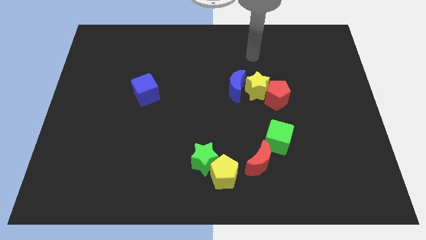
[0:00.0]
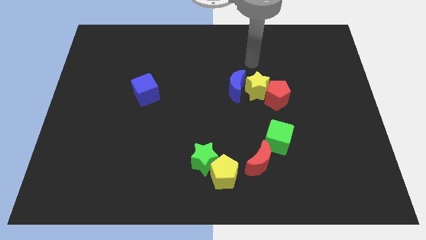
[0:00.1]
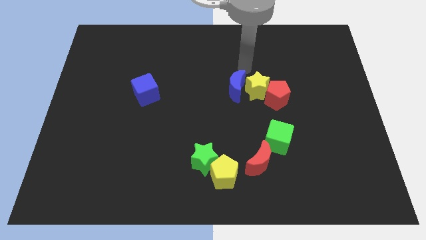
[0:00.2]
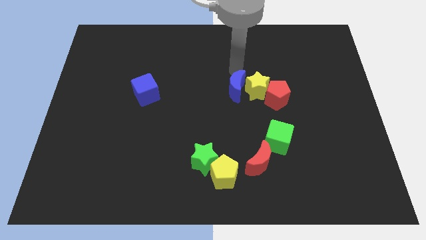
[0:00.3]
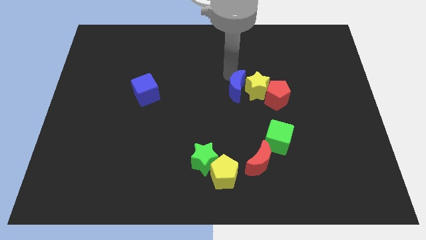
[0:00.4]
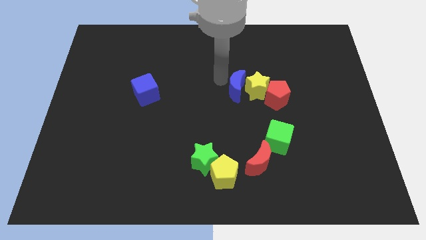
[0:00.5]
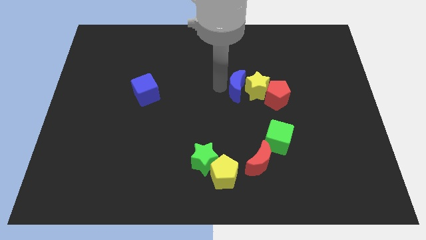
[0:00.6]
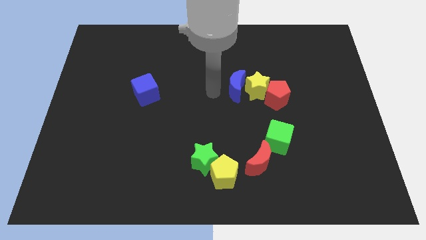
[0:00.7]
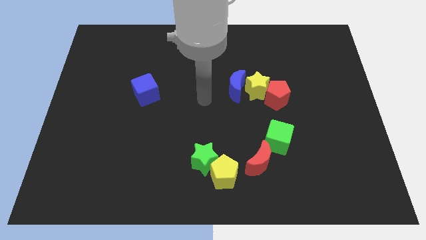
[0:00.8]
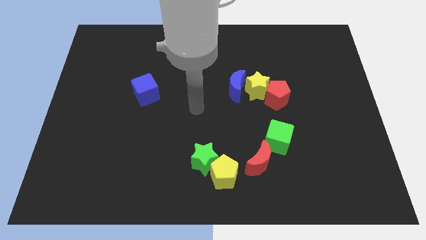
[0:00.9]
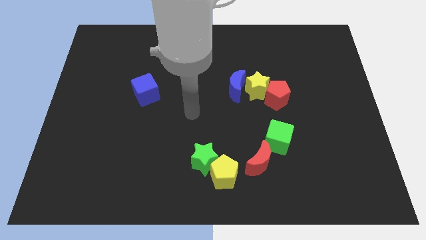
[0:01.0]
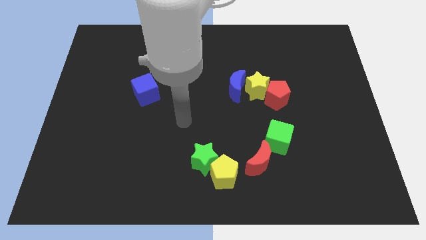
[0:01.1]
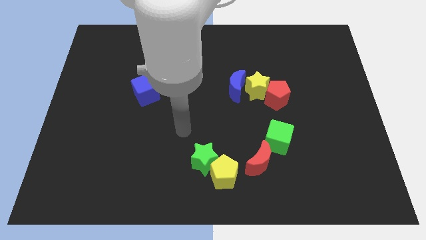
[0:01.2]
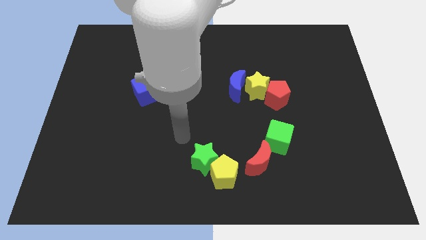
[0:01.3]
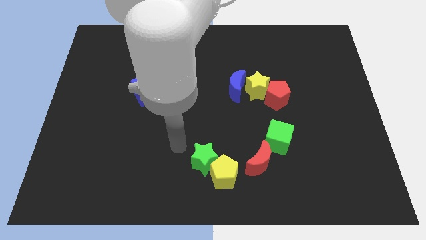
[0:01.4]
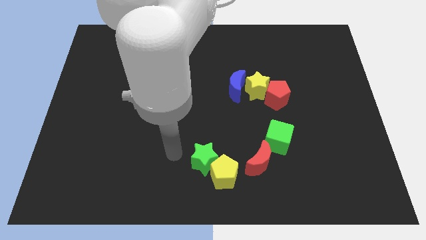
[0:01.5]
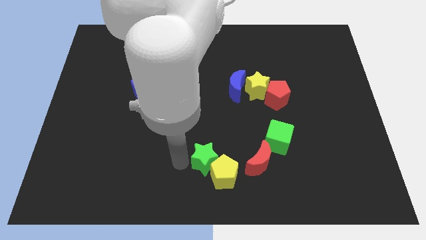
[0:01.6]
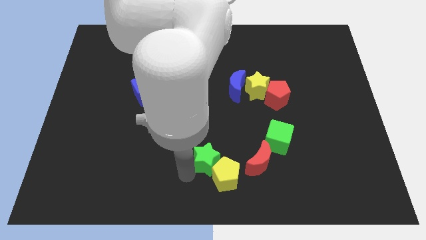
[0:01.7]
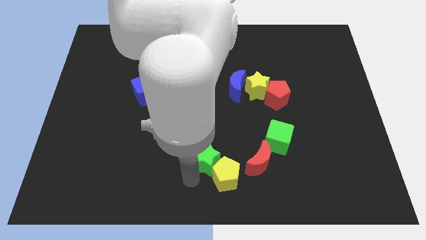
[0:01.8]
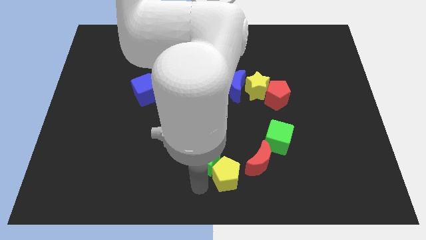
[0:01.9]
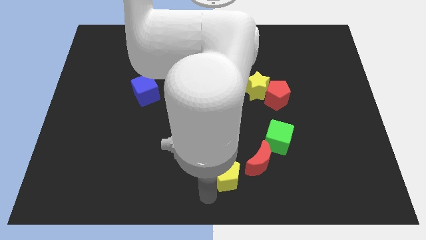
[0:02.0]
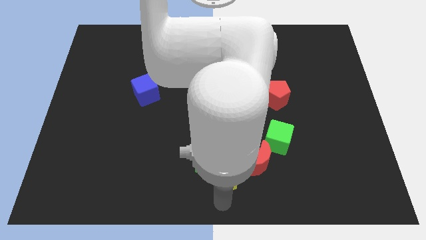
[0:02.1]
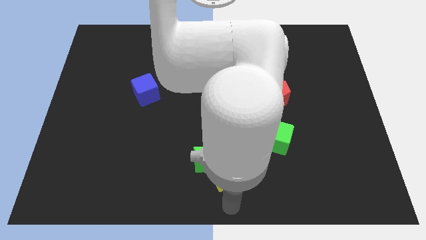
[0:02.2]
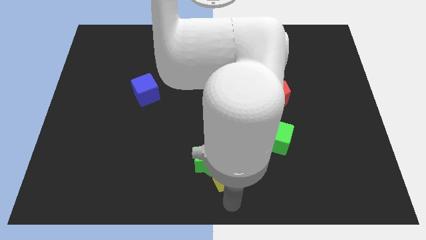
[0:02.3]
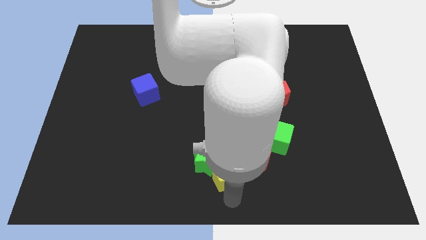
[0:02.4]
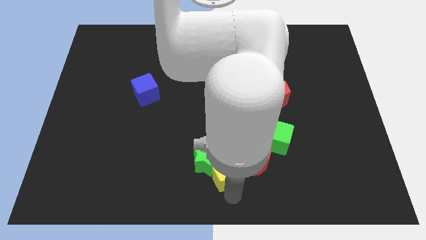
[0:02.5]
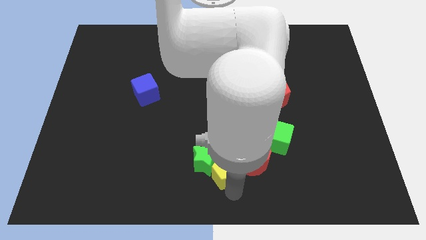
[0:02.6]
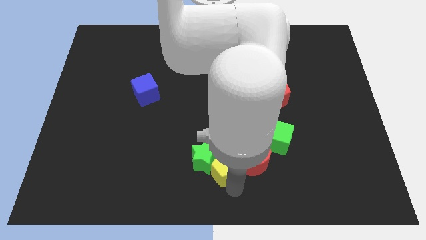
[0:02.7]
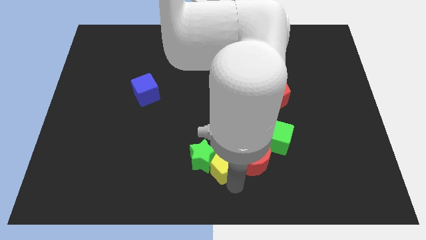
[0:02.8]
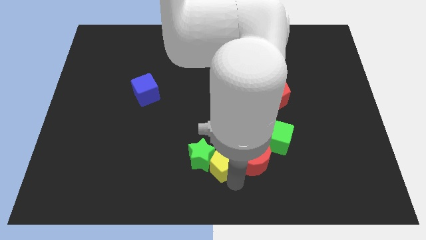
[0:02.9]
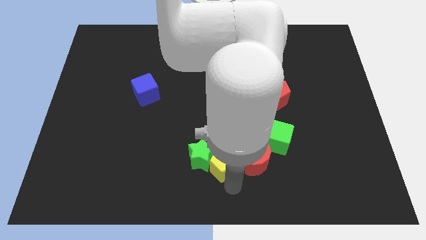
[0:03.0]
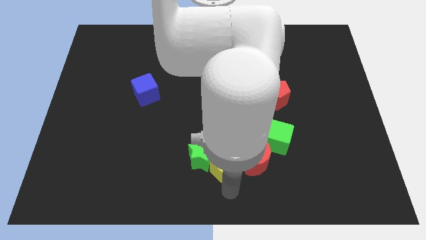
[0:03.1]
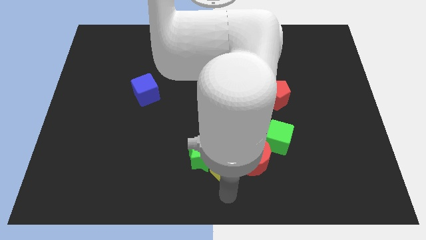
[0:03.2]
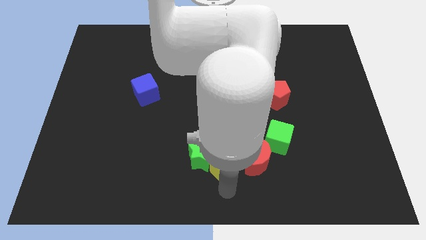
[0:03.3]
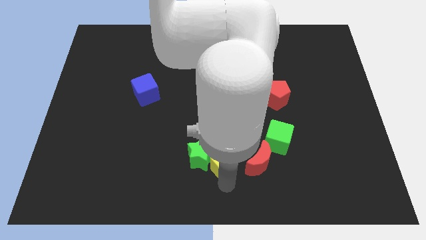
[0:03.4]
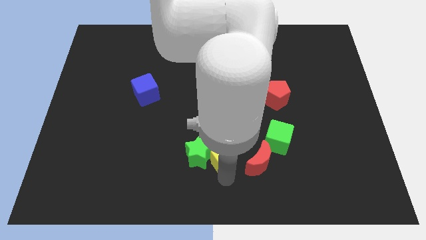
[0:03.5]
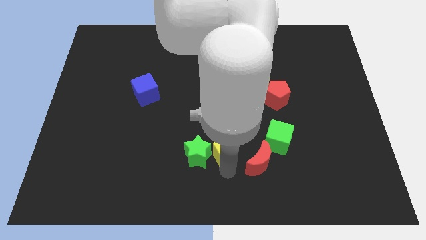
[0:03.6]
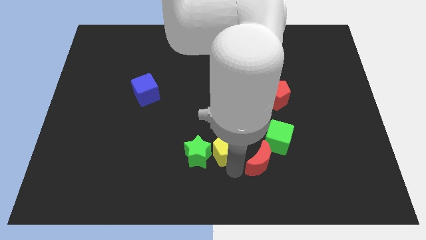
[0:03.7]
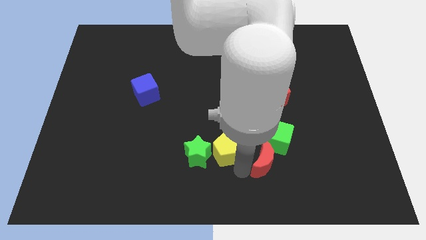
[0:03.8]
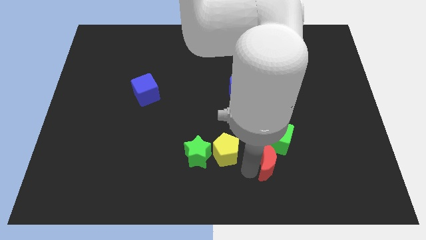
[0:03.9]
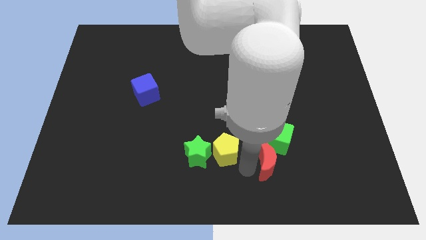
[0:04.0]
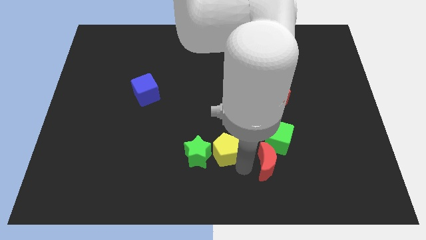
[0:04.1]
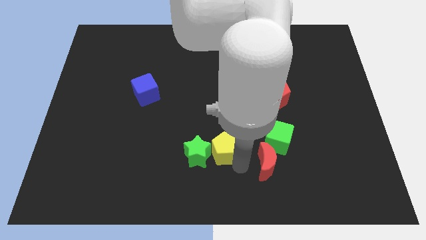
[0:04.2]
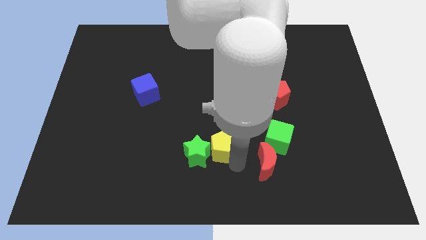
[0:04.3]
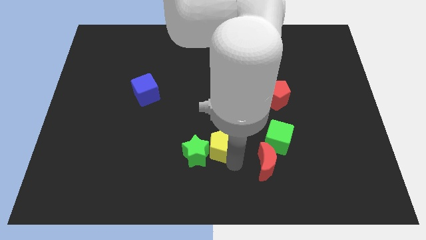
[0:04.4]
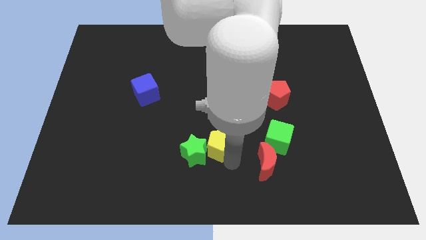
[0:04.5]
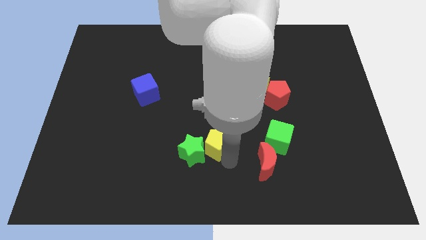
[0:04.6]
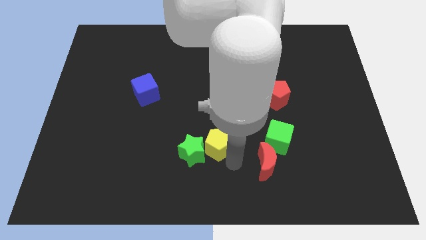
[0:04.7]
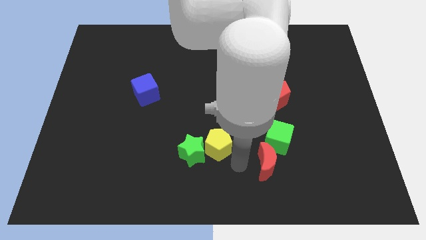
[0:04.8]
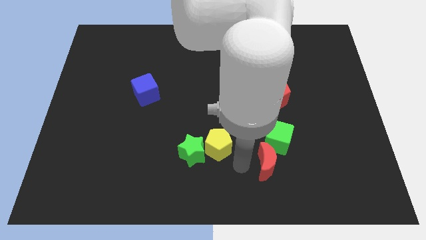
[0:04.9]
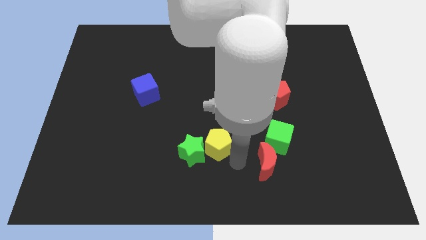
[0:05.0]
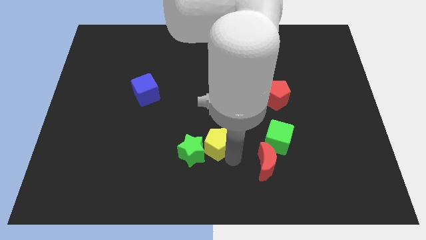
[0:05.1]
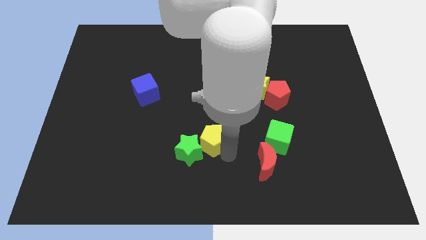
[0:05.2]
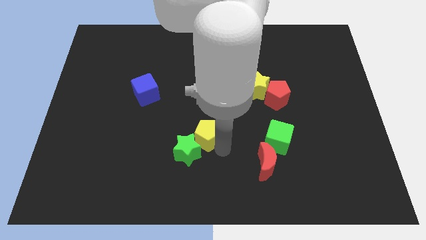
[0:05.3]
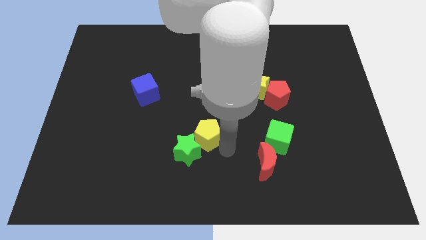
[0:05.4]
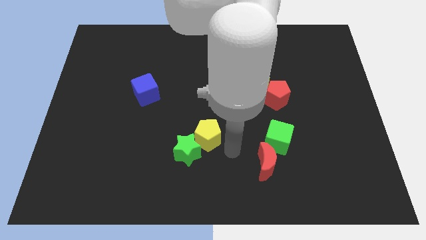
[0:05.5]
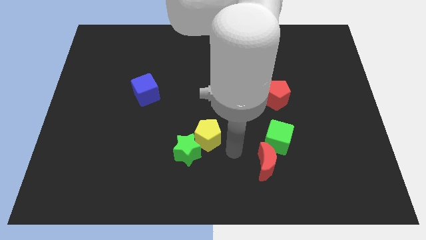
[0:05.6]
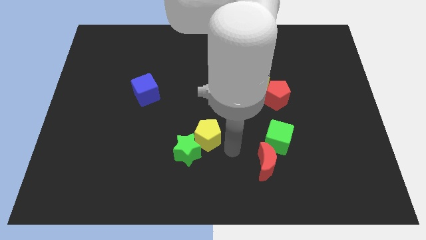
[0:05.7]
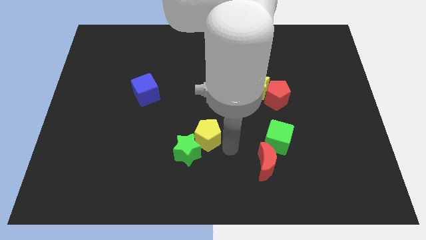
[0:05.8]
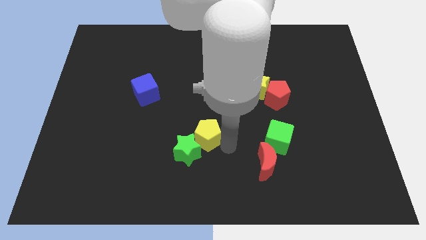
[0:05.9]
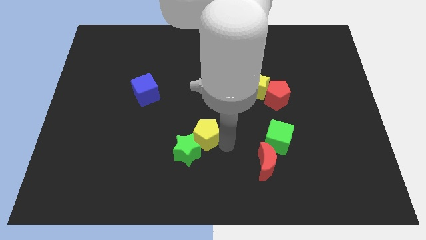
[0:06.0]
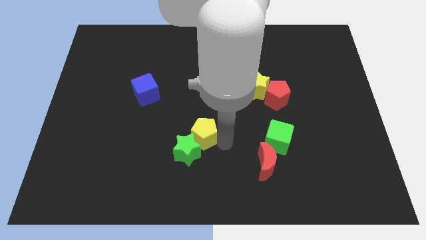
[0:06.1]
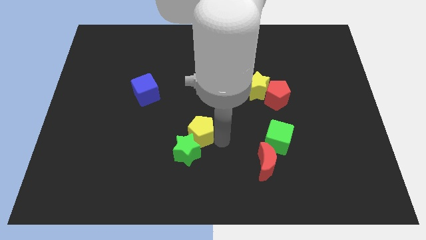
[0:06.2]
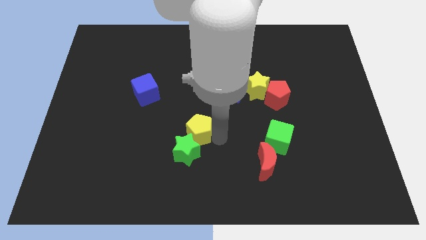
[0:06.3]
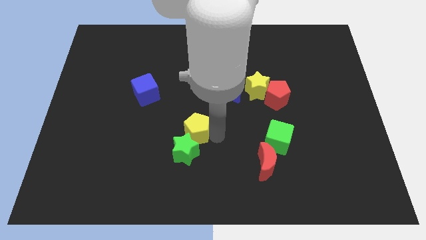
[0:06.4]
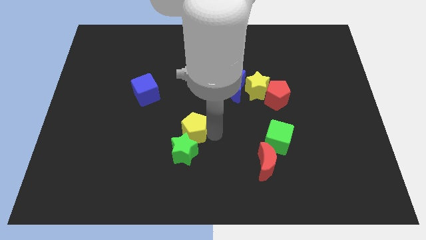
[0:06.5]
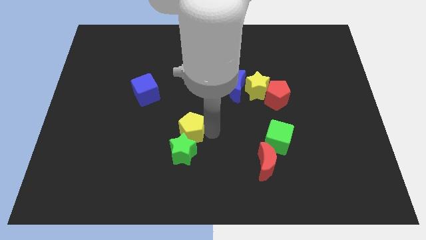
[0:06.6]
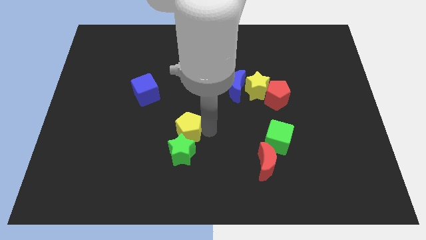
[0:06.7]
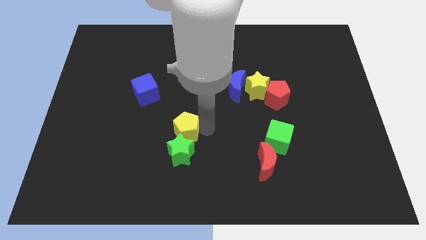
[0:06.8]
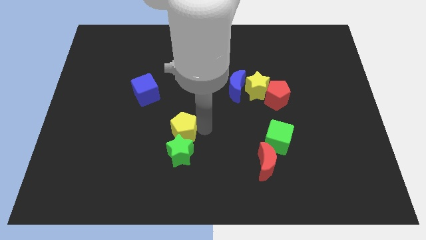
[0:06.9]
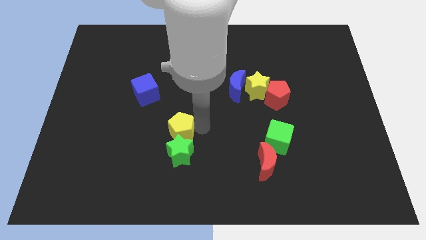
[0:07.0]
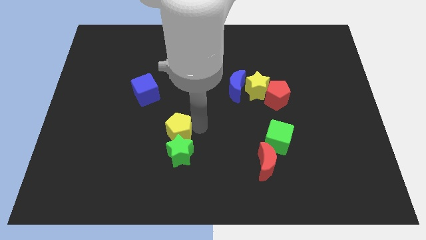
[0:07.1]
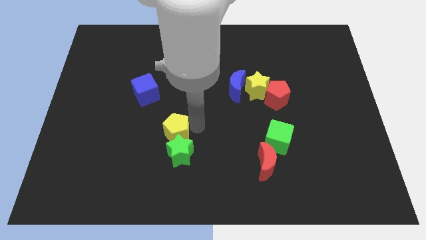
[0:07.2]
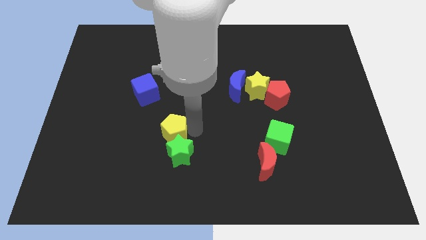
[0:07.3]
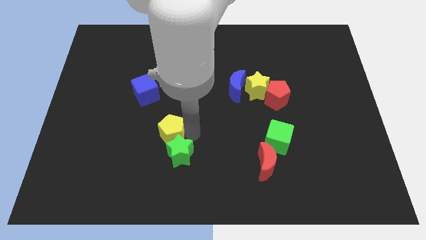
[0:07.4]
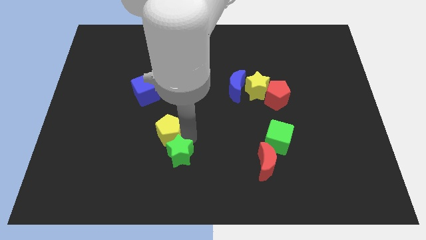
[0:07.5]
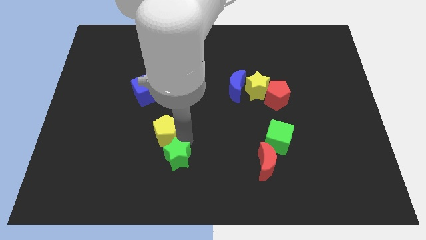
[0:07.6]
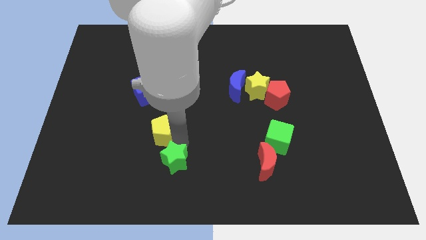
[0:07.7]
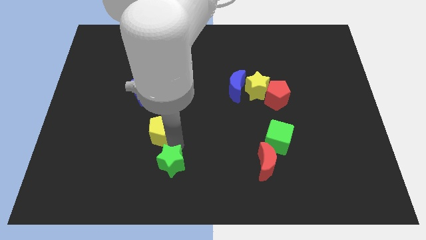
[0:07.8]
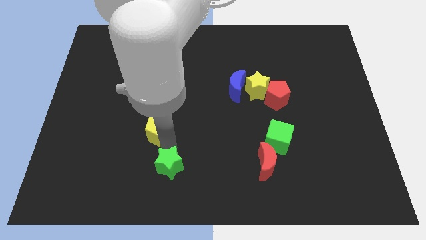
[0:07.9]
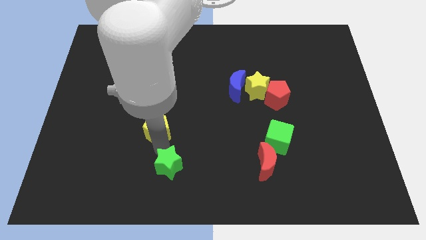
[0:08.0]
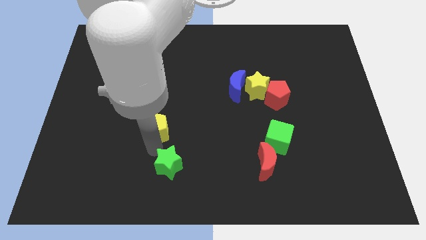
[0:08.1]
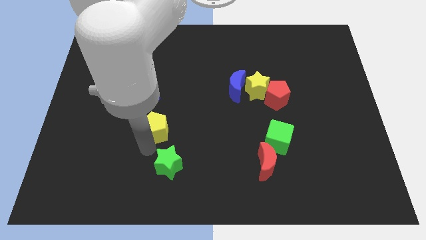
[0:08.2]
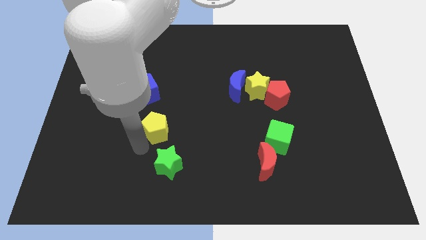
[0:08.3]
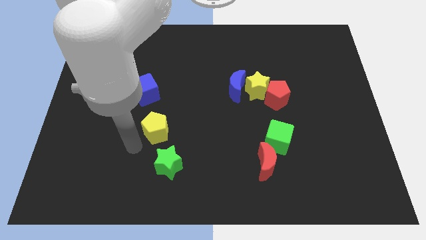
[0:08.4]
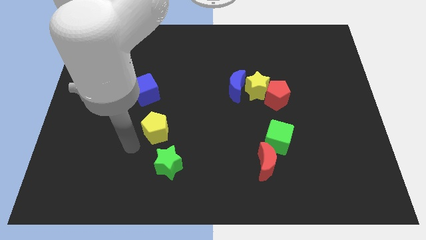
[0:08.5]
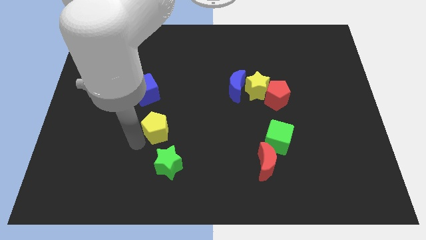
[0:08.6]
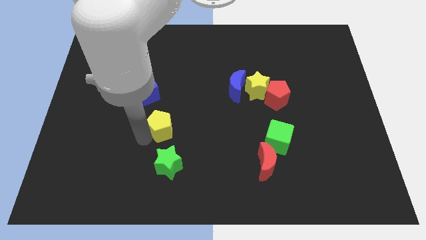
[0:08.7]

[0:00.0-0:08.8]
push the yellow pentagon to the bottom right of the blue cube
